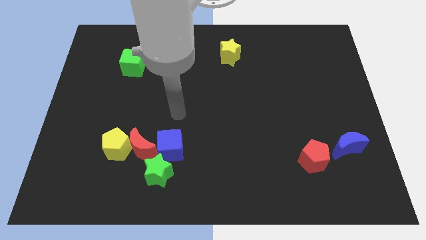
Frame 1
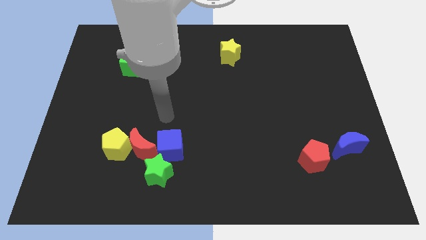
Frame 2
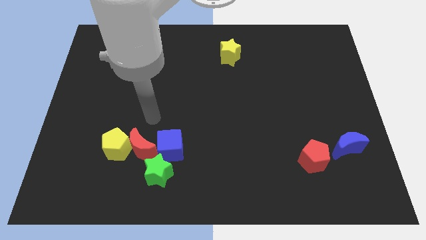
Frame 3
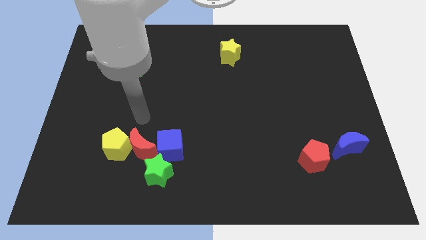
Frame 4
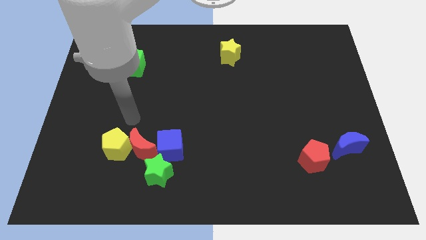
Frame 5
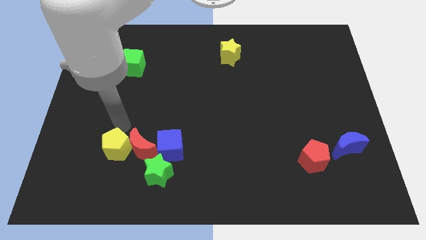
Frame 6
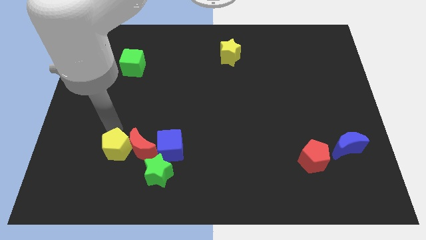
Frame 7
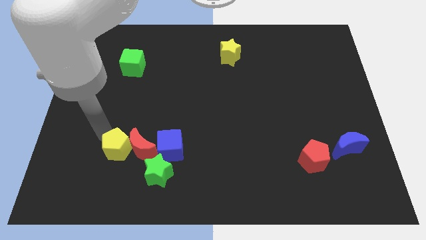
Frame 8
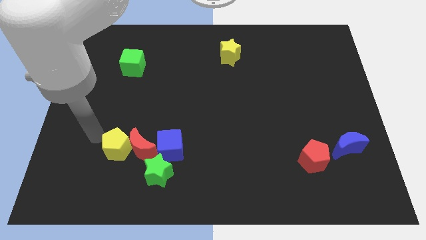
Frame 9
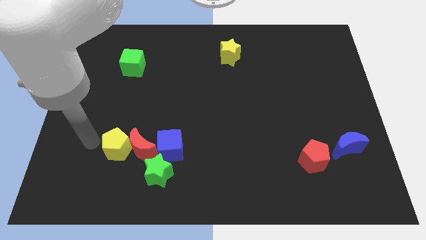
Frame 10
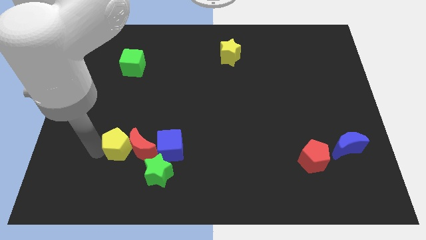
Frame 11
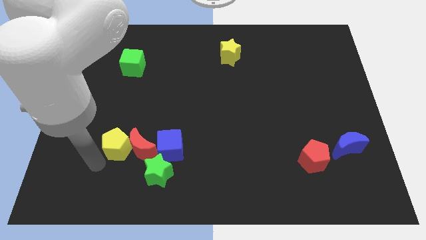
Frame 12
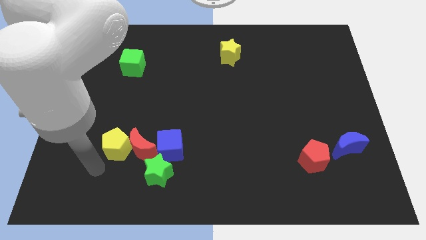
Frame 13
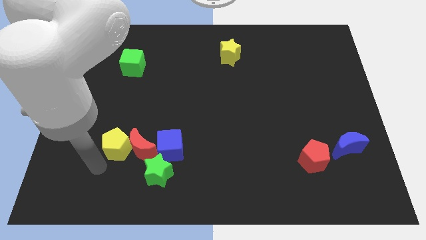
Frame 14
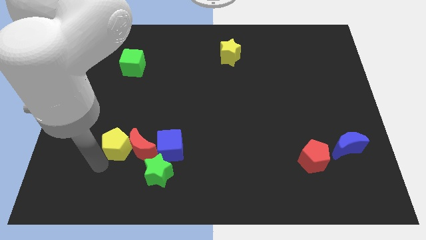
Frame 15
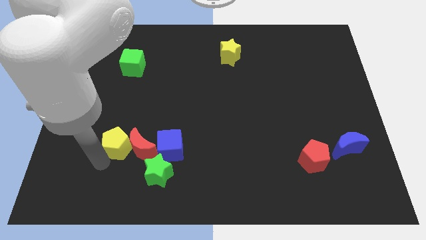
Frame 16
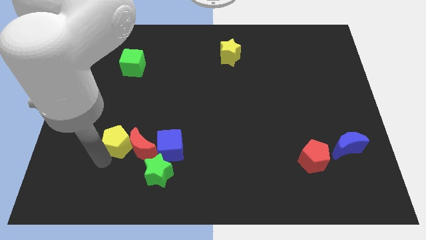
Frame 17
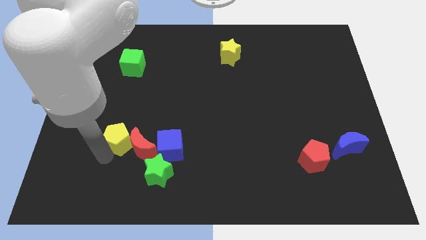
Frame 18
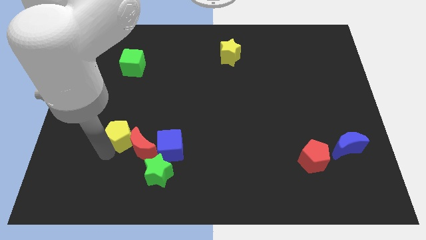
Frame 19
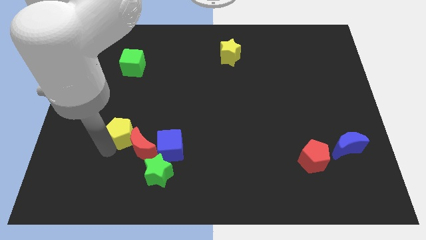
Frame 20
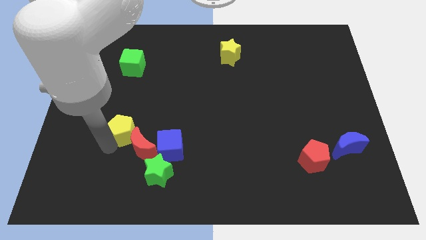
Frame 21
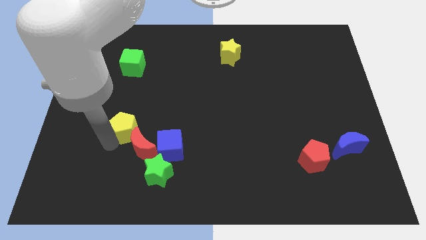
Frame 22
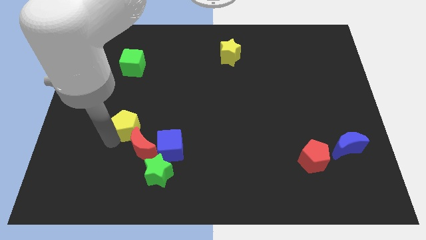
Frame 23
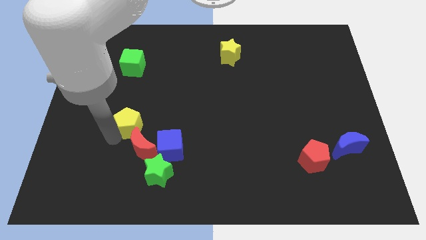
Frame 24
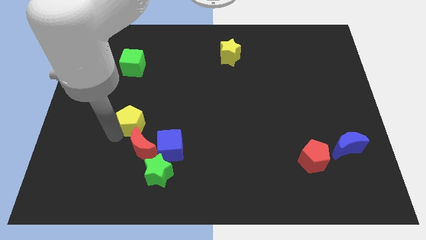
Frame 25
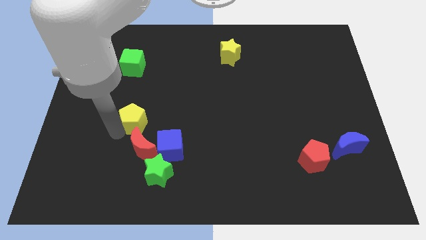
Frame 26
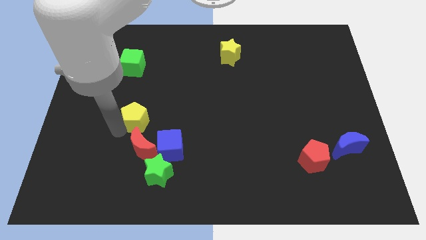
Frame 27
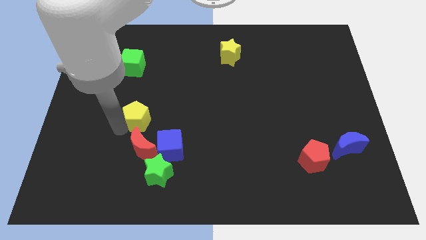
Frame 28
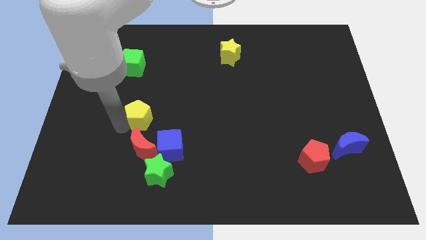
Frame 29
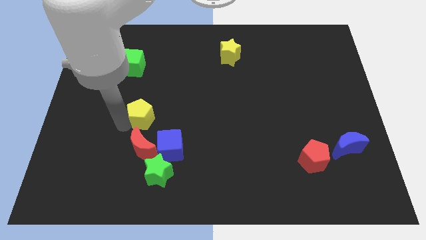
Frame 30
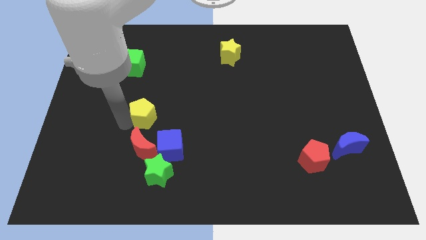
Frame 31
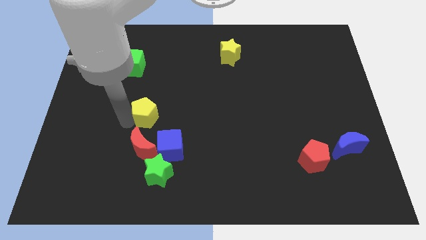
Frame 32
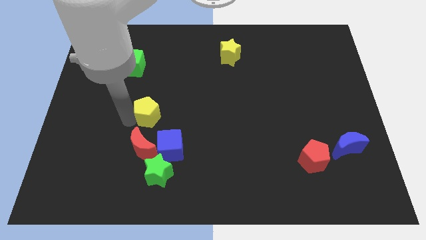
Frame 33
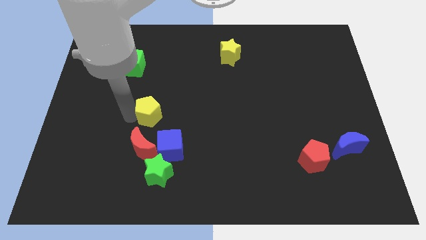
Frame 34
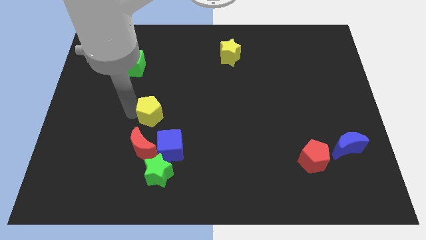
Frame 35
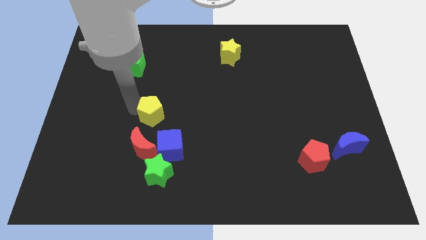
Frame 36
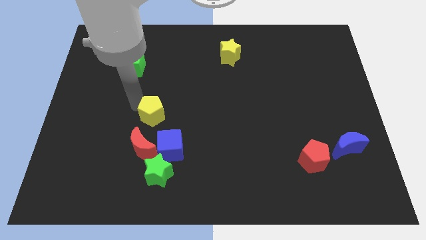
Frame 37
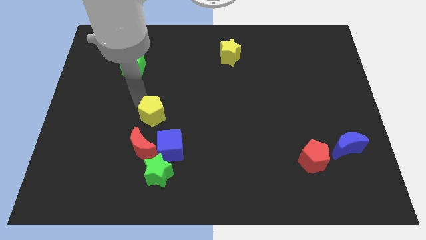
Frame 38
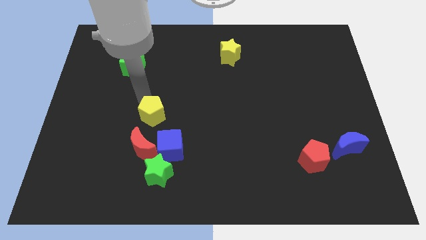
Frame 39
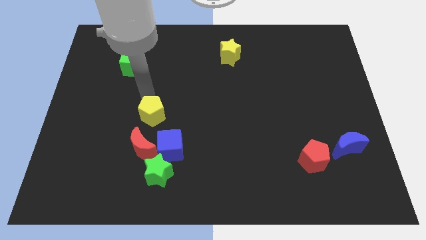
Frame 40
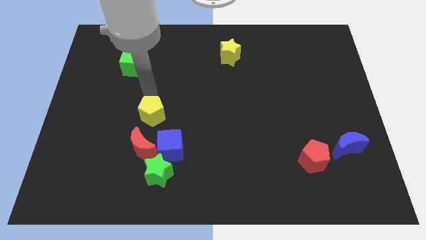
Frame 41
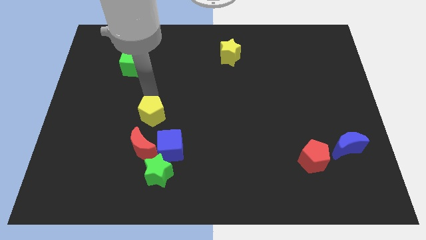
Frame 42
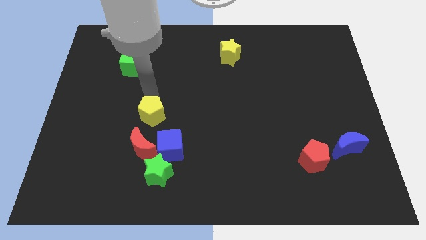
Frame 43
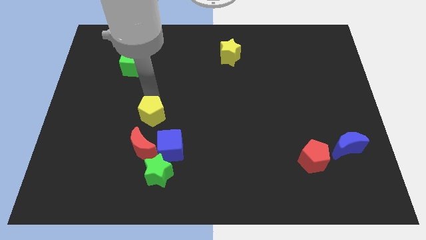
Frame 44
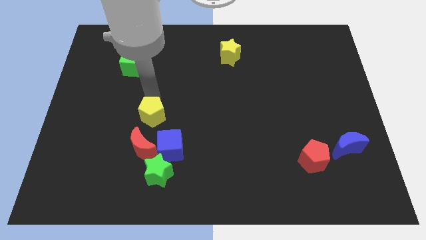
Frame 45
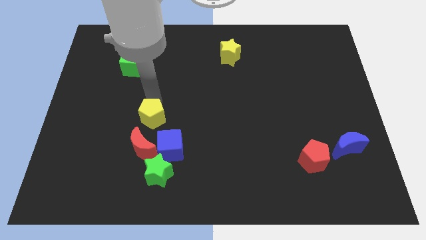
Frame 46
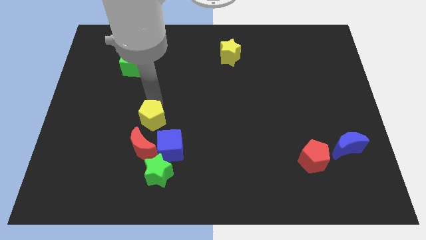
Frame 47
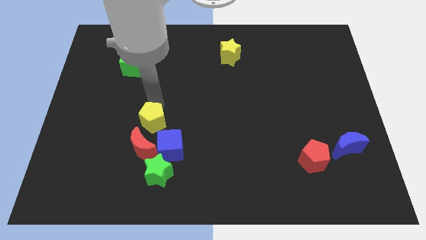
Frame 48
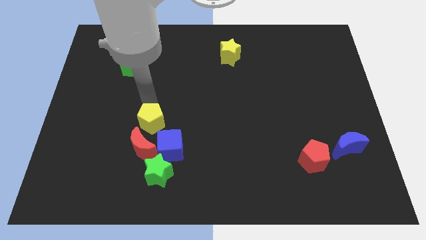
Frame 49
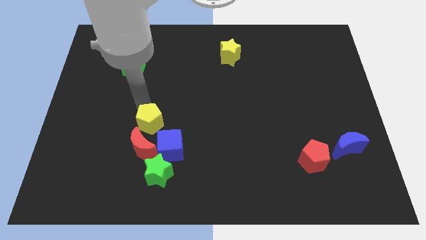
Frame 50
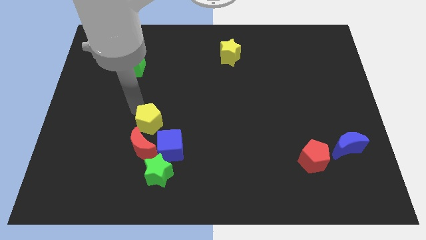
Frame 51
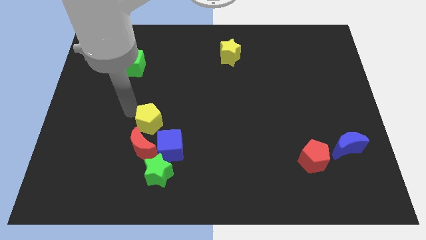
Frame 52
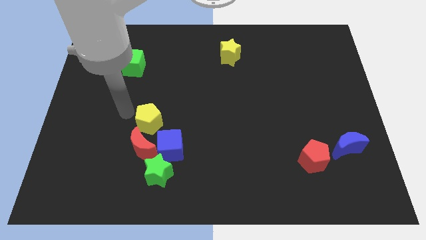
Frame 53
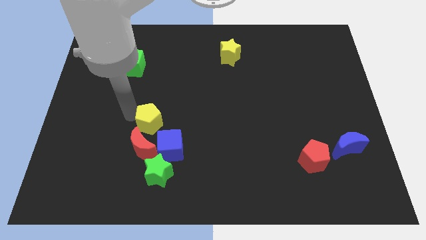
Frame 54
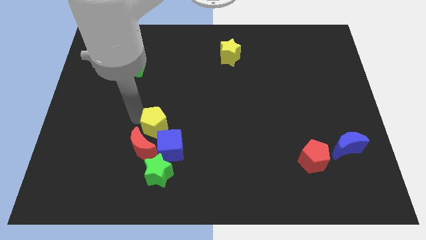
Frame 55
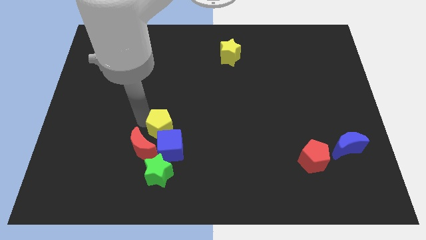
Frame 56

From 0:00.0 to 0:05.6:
move the yellow pentagon right a little

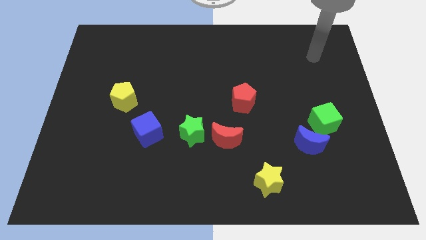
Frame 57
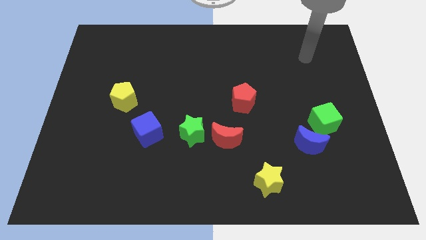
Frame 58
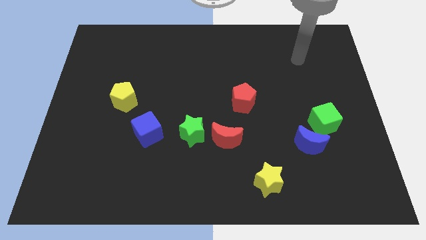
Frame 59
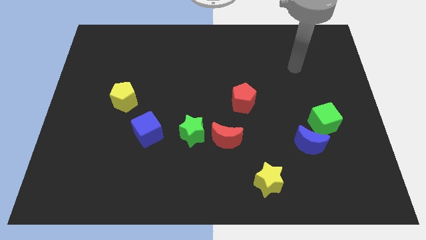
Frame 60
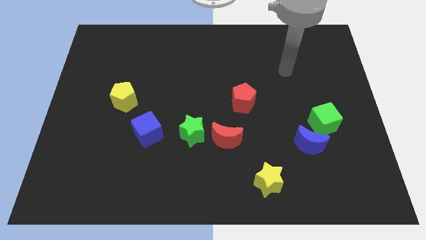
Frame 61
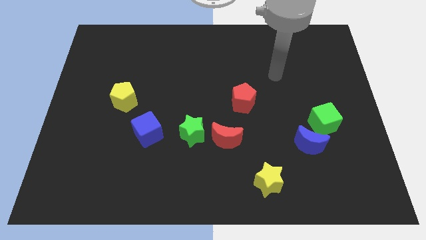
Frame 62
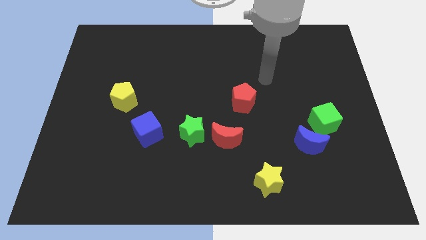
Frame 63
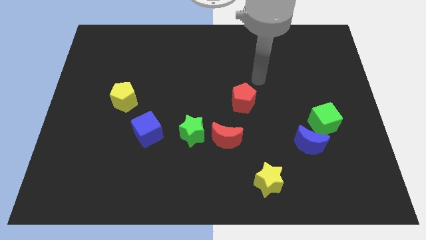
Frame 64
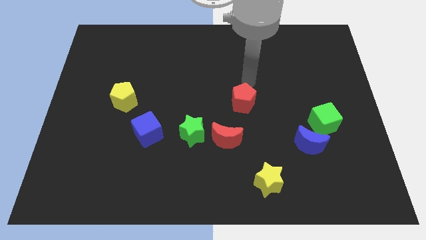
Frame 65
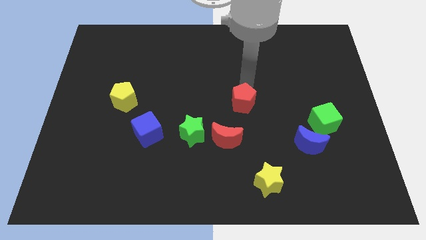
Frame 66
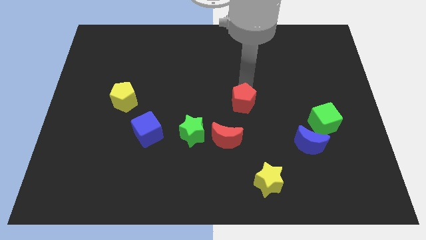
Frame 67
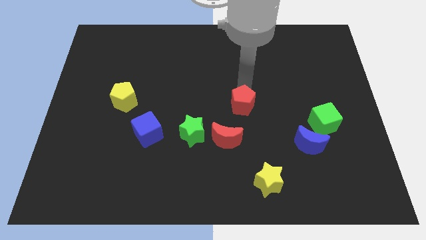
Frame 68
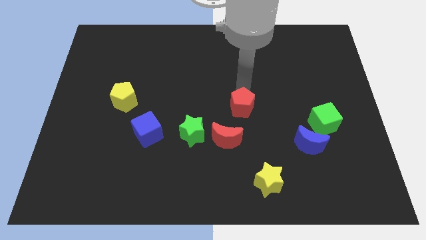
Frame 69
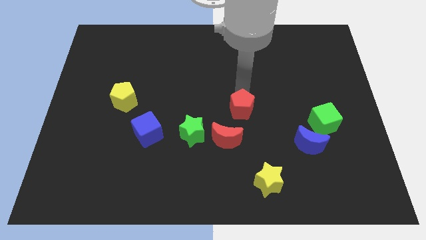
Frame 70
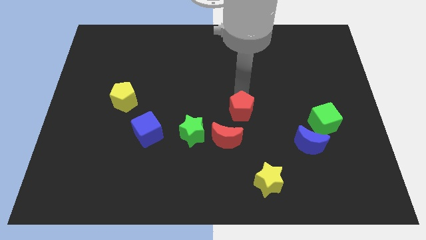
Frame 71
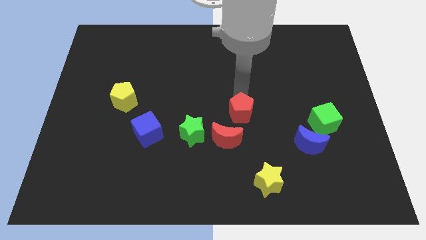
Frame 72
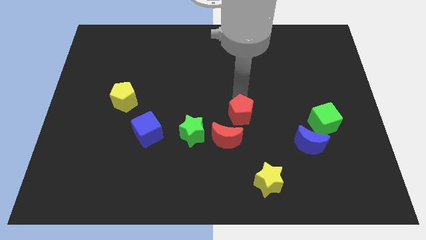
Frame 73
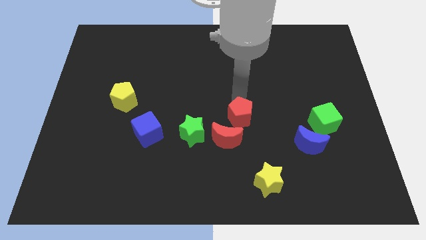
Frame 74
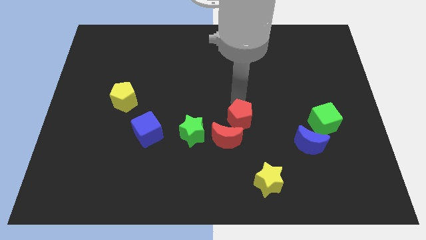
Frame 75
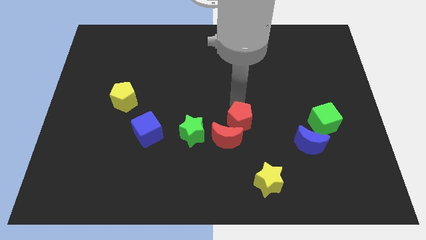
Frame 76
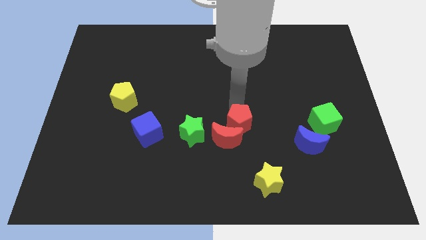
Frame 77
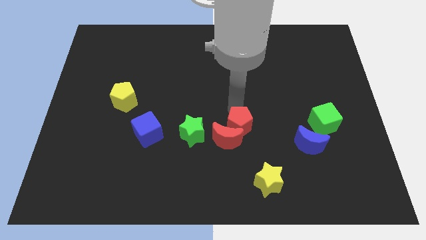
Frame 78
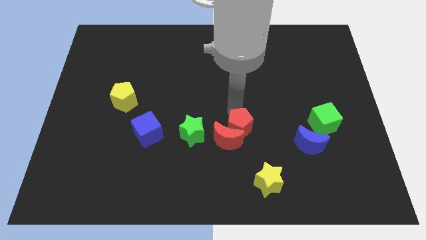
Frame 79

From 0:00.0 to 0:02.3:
slide the red pentagon a little bit down

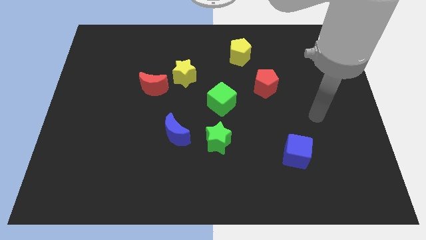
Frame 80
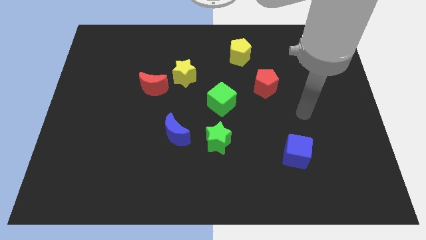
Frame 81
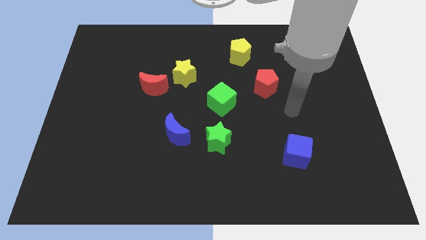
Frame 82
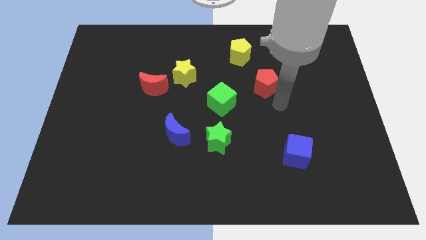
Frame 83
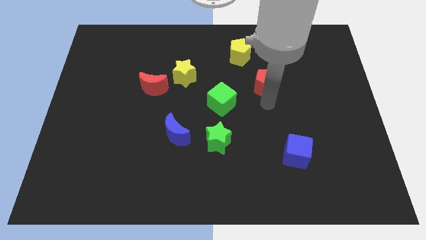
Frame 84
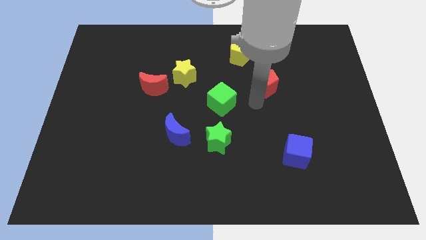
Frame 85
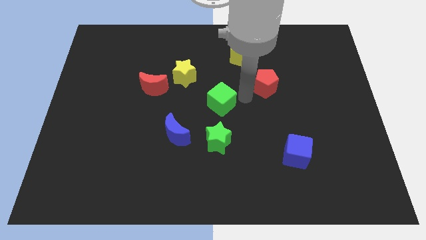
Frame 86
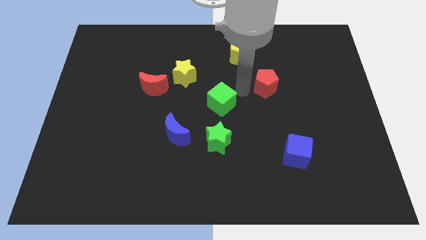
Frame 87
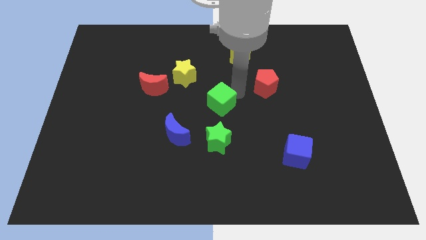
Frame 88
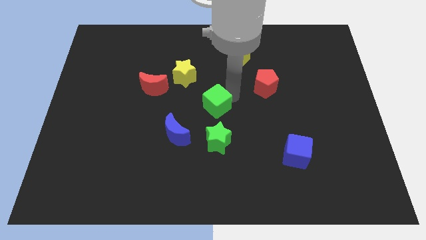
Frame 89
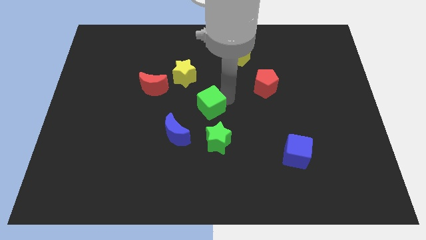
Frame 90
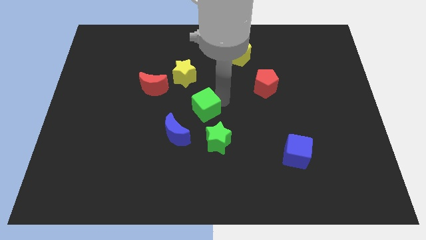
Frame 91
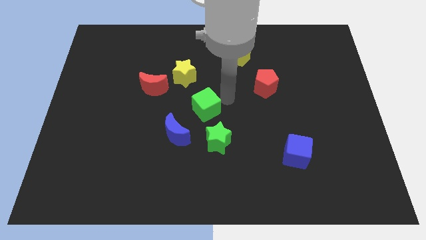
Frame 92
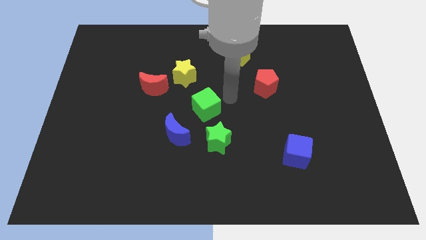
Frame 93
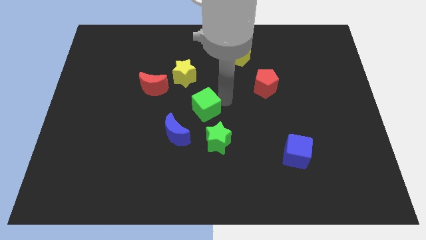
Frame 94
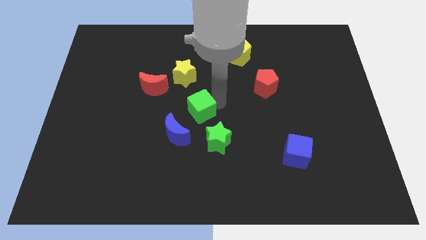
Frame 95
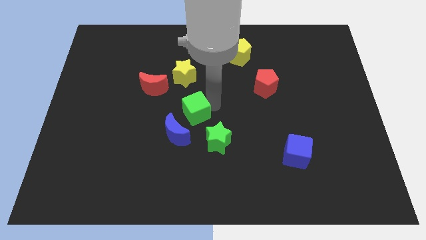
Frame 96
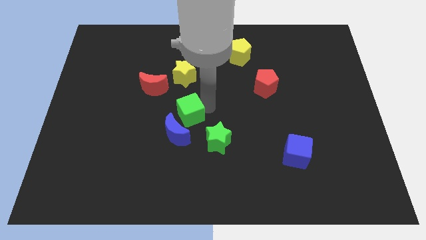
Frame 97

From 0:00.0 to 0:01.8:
slightly move the green cube left
